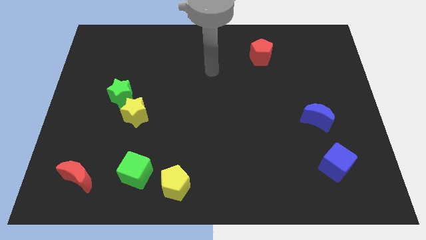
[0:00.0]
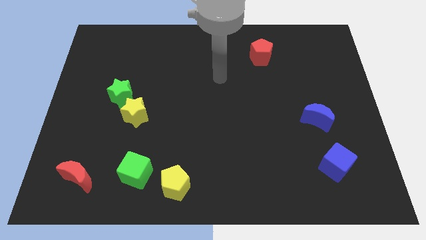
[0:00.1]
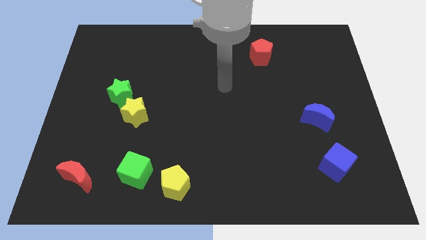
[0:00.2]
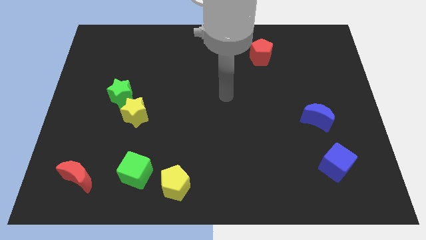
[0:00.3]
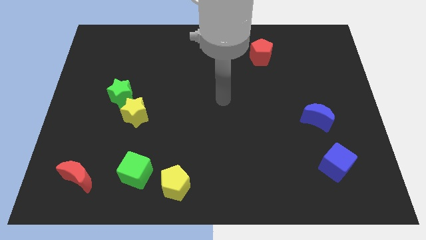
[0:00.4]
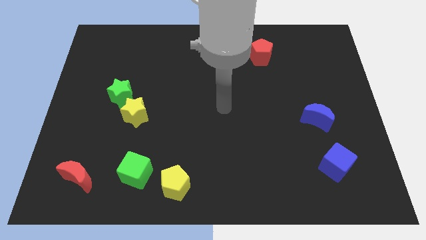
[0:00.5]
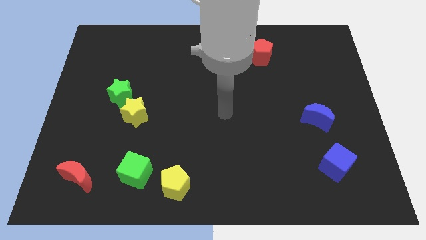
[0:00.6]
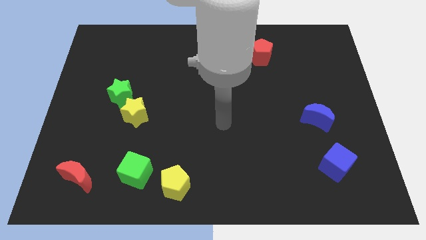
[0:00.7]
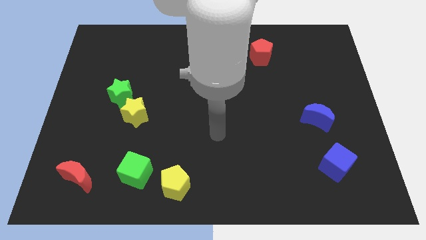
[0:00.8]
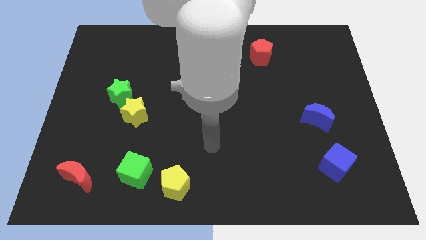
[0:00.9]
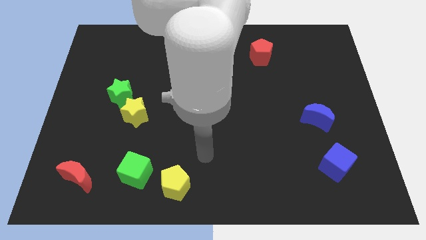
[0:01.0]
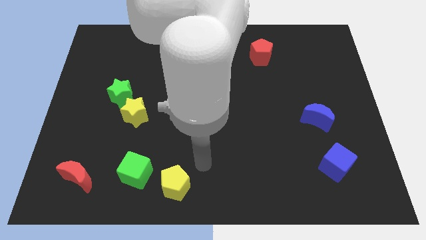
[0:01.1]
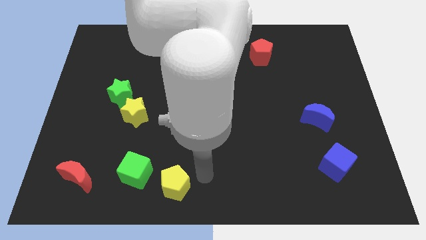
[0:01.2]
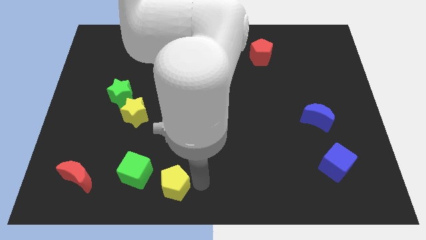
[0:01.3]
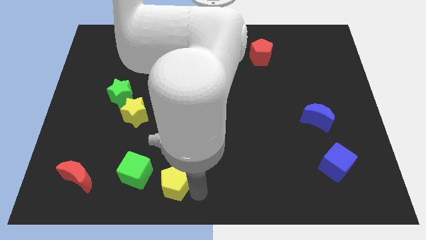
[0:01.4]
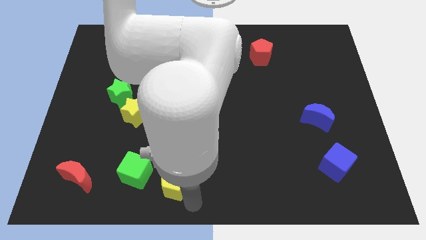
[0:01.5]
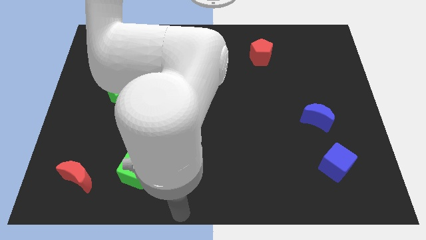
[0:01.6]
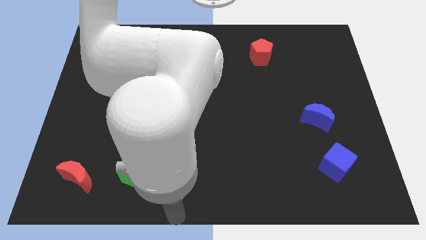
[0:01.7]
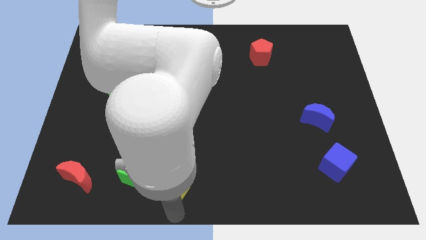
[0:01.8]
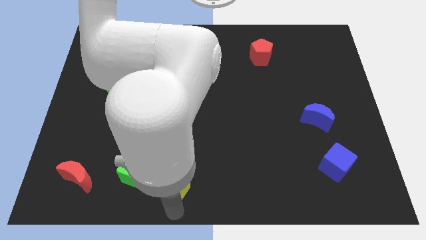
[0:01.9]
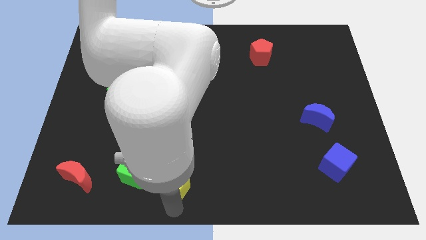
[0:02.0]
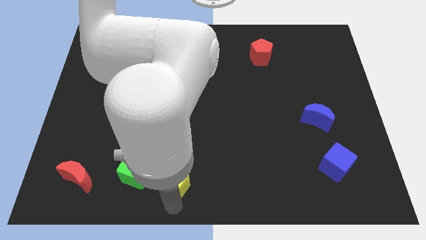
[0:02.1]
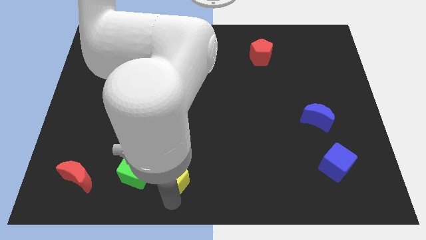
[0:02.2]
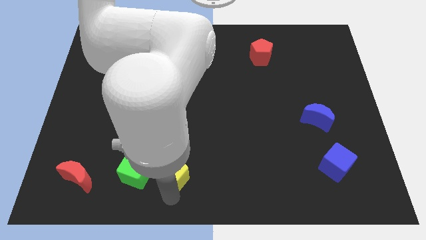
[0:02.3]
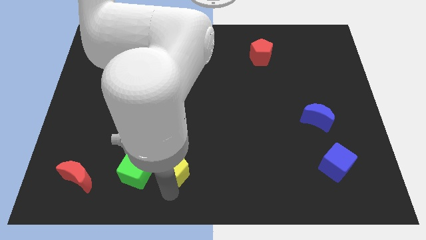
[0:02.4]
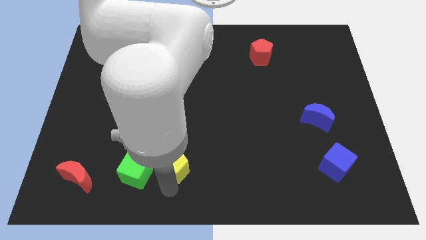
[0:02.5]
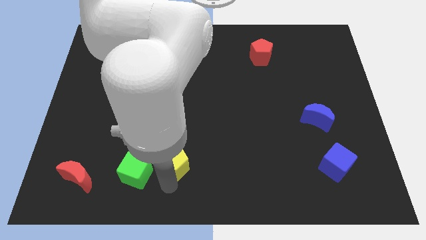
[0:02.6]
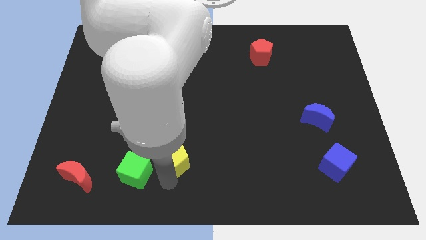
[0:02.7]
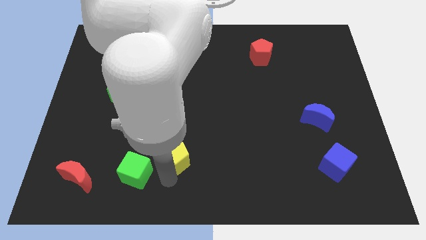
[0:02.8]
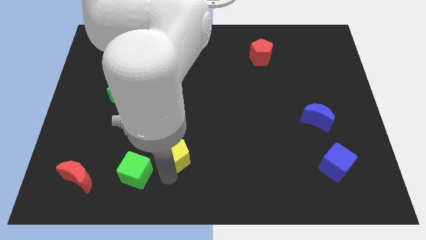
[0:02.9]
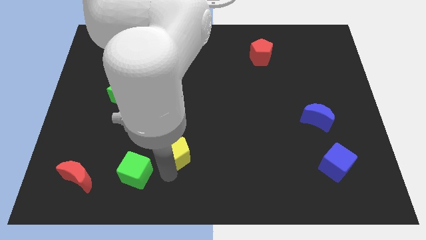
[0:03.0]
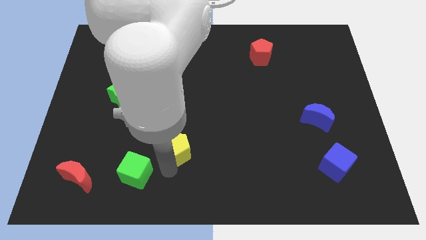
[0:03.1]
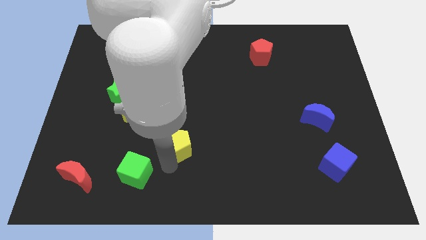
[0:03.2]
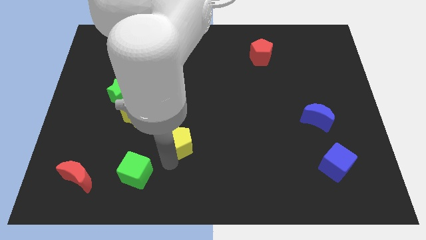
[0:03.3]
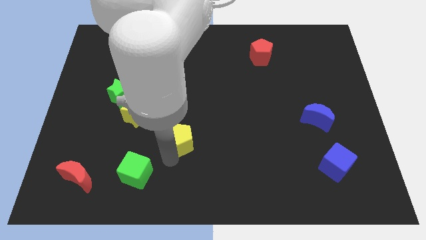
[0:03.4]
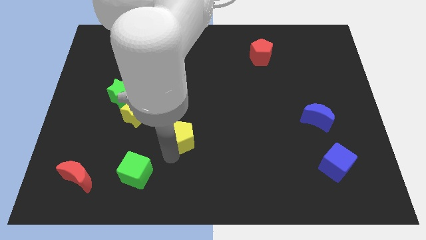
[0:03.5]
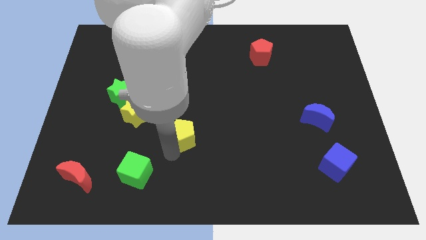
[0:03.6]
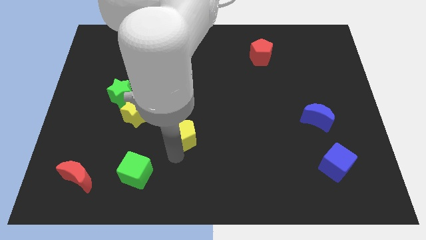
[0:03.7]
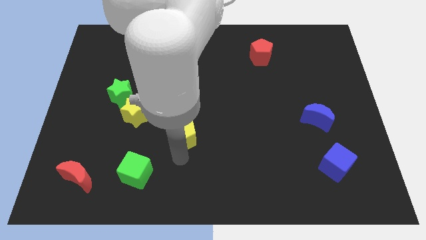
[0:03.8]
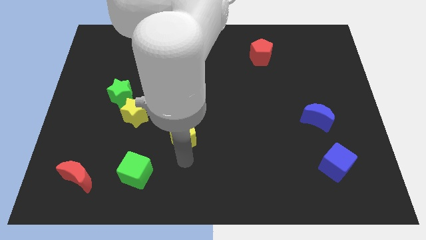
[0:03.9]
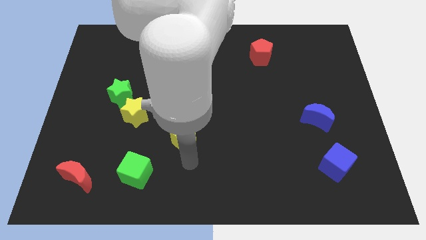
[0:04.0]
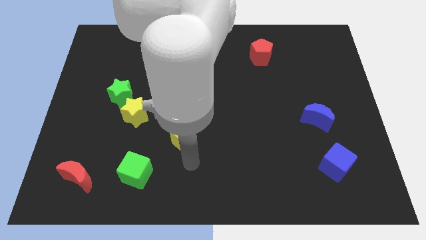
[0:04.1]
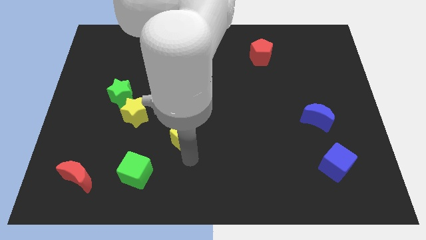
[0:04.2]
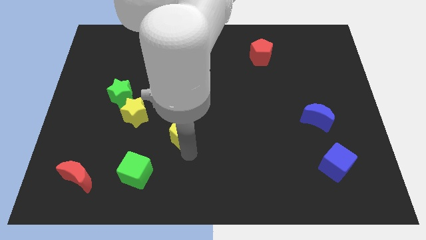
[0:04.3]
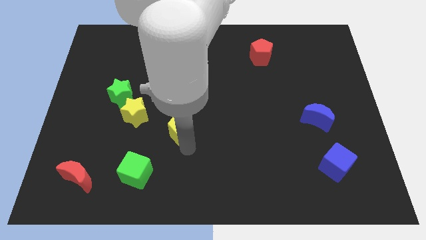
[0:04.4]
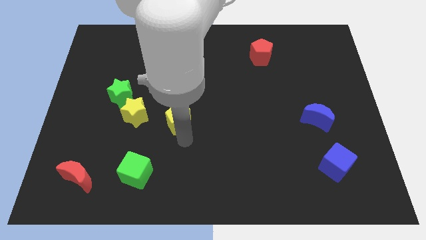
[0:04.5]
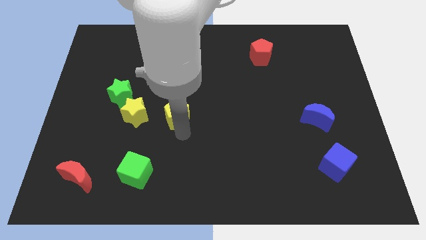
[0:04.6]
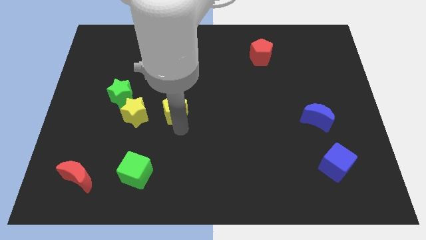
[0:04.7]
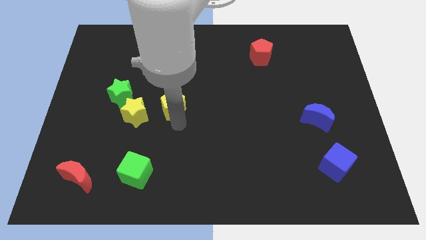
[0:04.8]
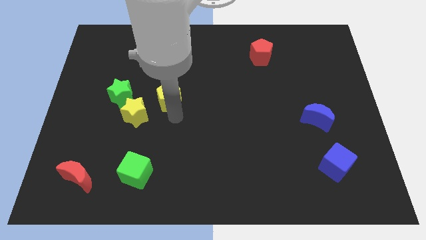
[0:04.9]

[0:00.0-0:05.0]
slide the yellow pentagon up

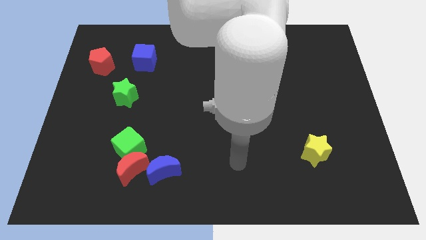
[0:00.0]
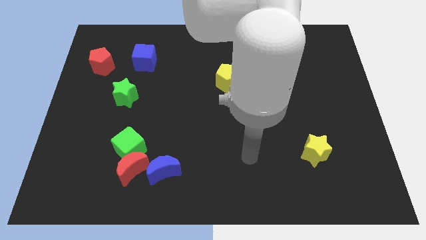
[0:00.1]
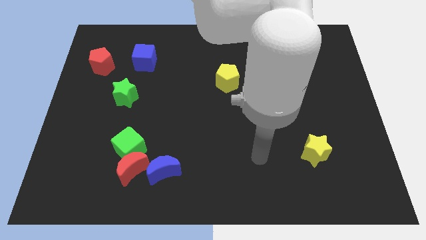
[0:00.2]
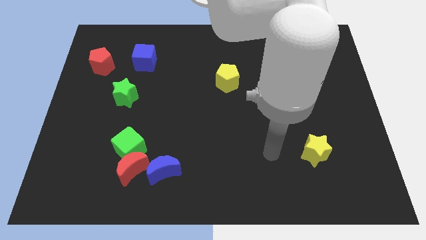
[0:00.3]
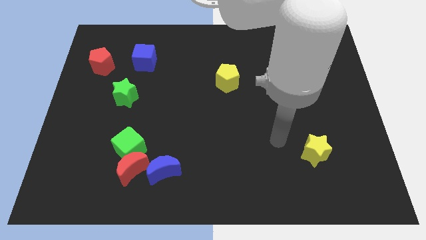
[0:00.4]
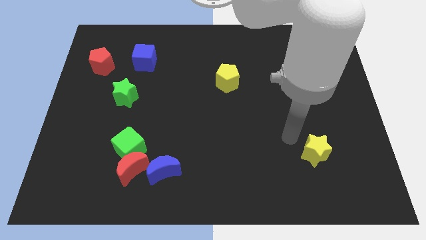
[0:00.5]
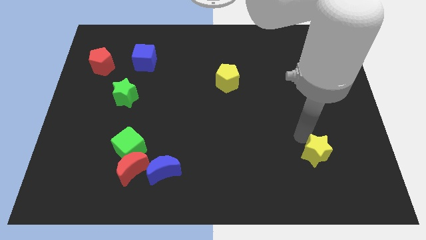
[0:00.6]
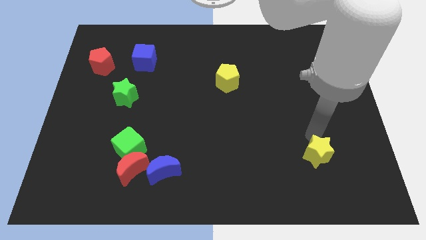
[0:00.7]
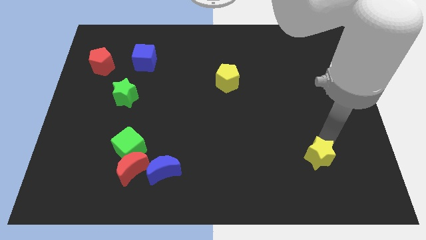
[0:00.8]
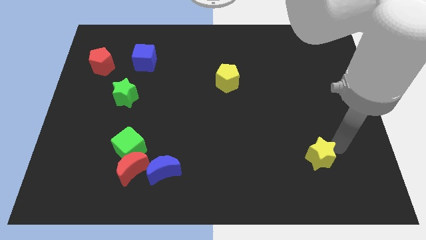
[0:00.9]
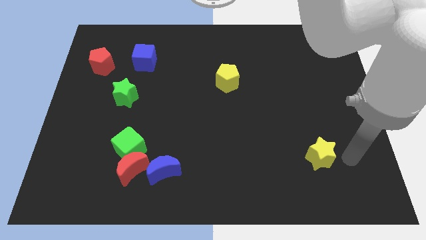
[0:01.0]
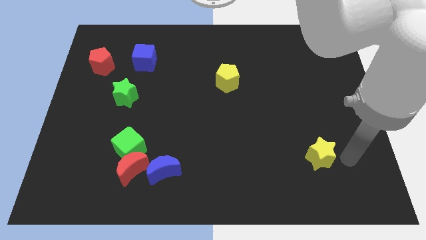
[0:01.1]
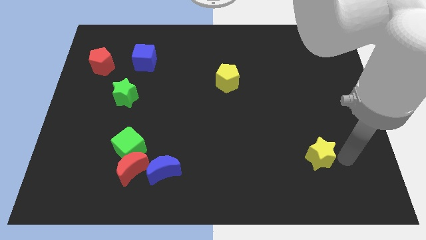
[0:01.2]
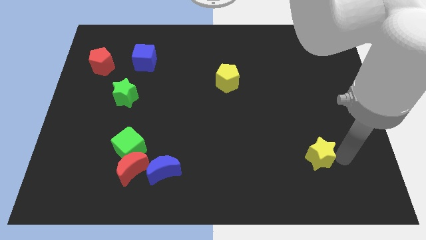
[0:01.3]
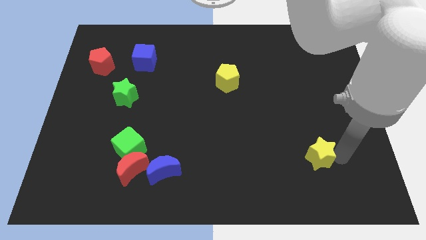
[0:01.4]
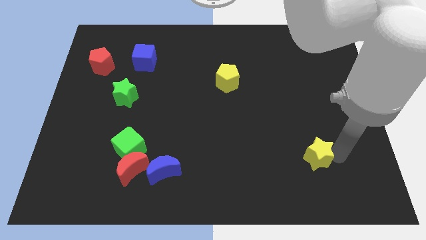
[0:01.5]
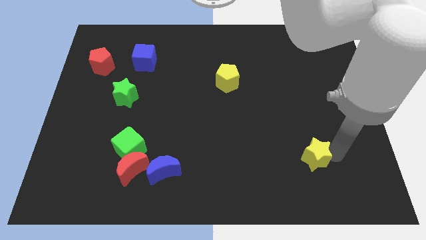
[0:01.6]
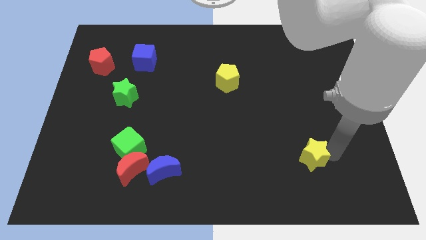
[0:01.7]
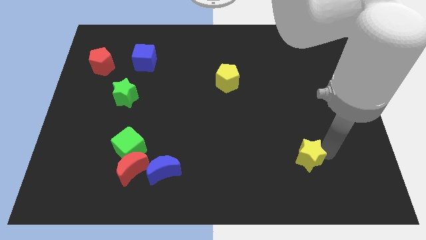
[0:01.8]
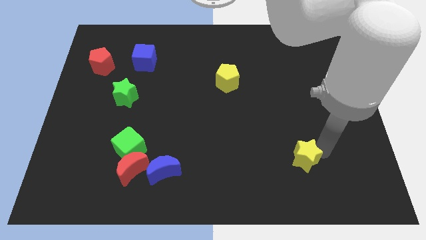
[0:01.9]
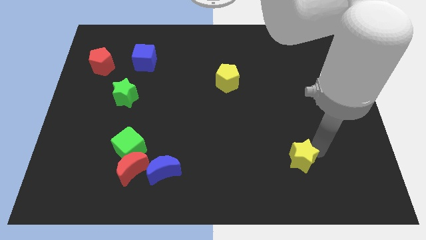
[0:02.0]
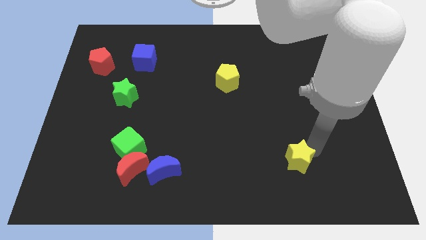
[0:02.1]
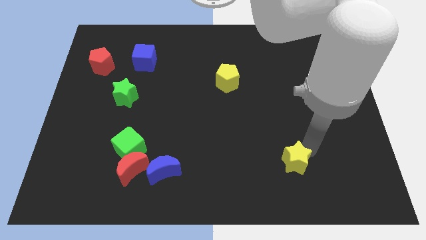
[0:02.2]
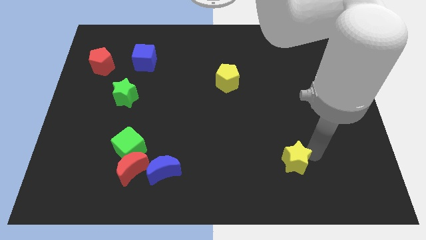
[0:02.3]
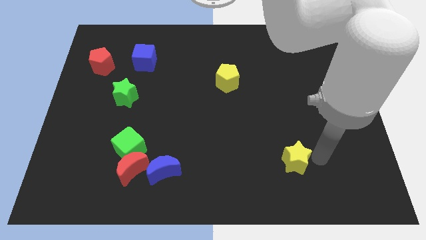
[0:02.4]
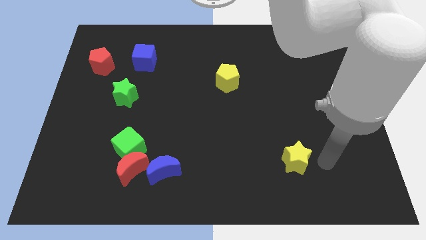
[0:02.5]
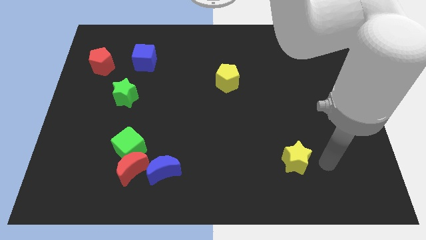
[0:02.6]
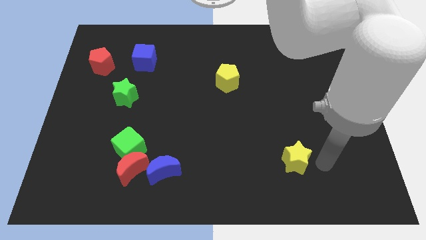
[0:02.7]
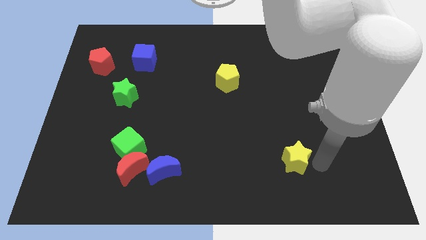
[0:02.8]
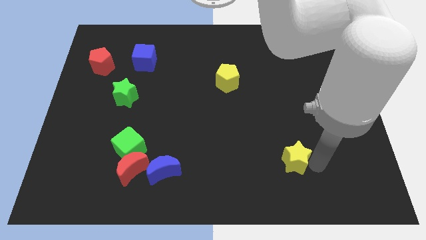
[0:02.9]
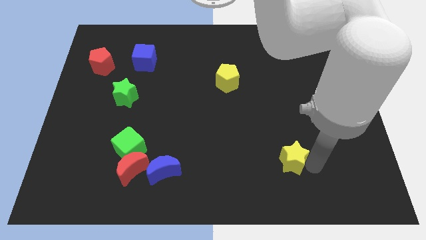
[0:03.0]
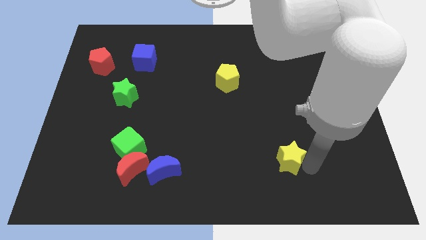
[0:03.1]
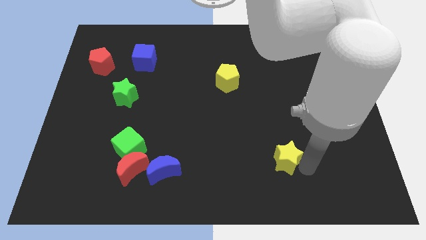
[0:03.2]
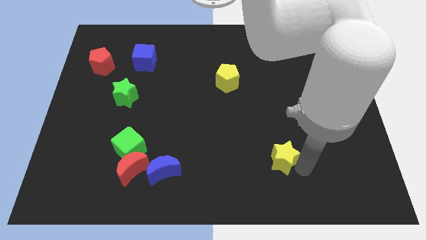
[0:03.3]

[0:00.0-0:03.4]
move the yellow star to the left a bit

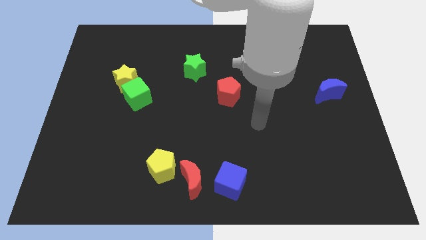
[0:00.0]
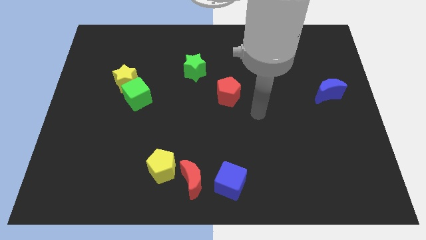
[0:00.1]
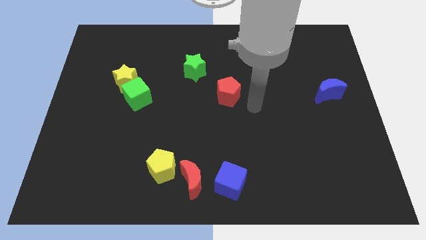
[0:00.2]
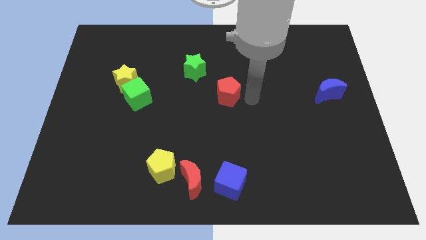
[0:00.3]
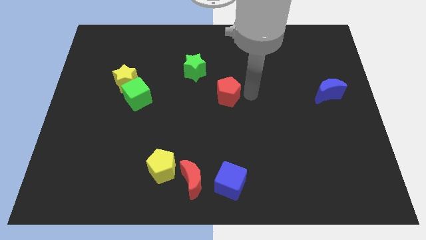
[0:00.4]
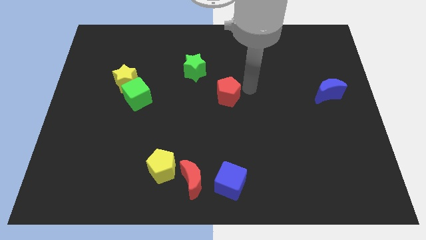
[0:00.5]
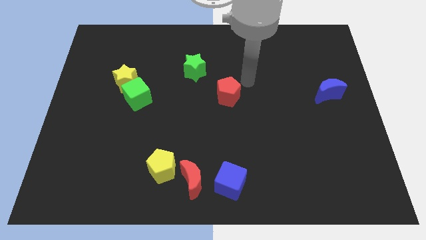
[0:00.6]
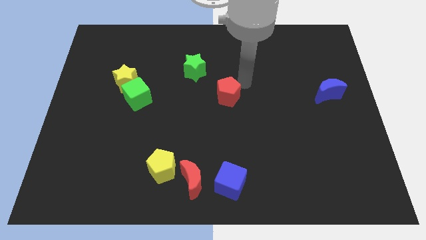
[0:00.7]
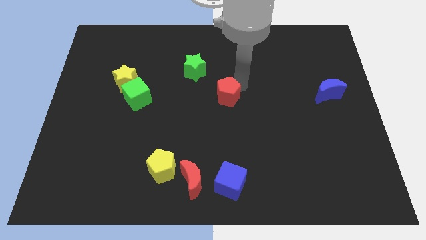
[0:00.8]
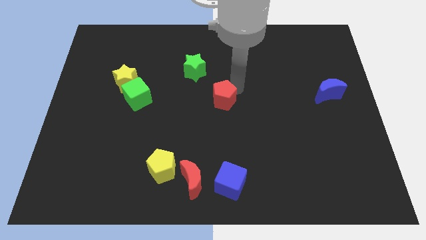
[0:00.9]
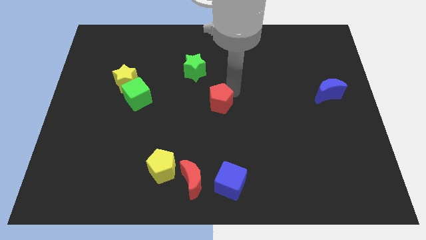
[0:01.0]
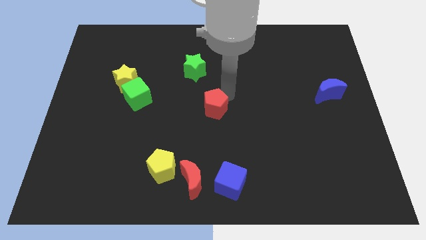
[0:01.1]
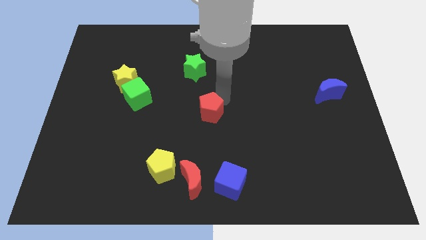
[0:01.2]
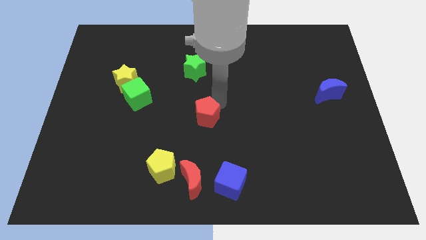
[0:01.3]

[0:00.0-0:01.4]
slightly move the red pentagon diagonally down and to the left
